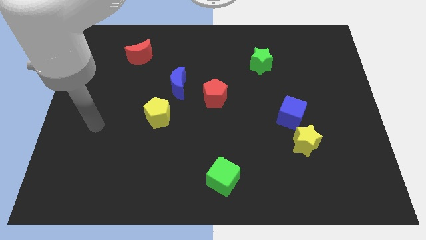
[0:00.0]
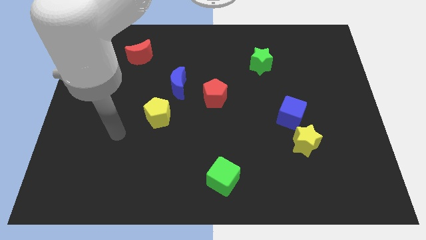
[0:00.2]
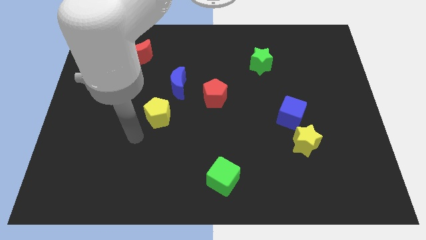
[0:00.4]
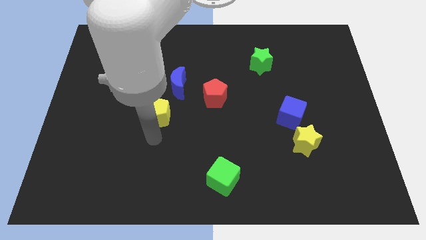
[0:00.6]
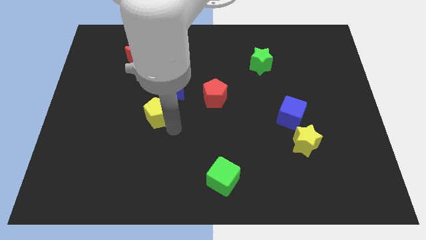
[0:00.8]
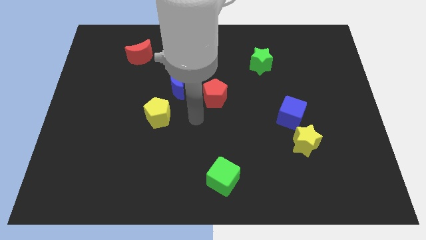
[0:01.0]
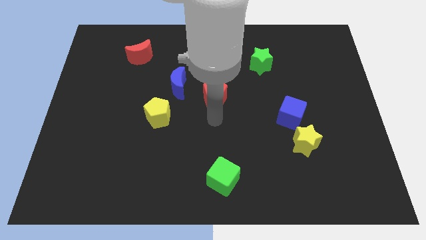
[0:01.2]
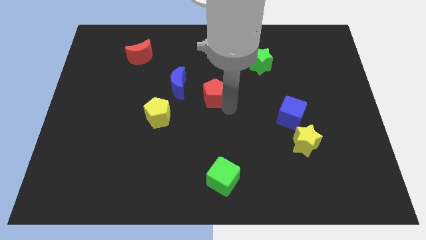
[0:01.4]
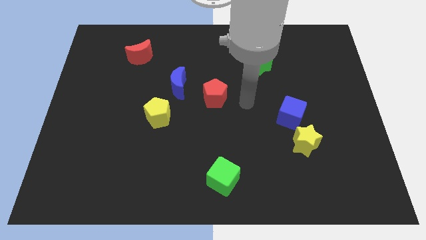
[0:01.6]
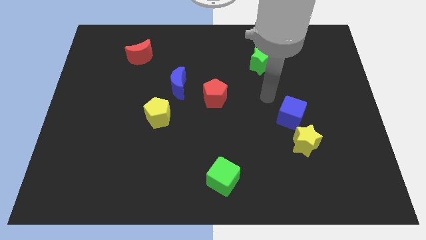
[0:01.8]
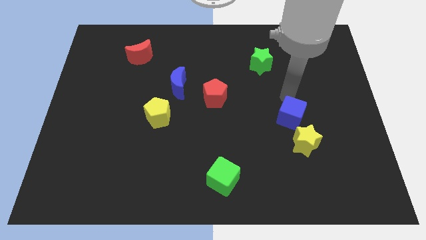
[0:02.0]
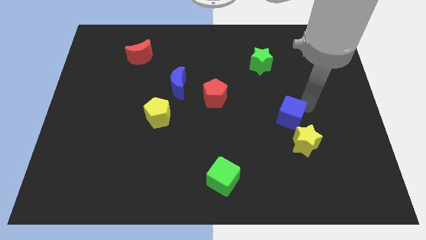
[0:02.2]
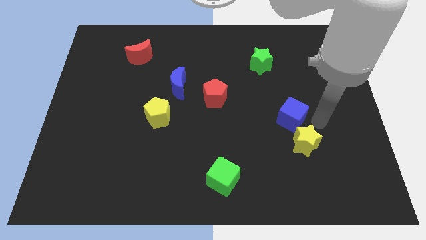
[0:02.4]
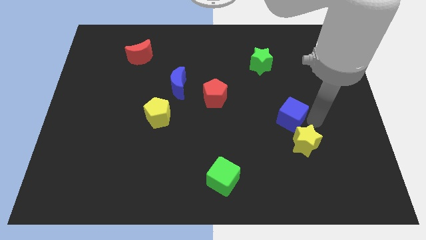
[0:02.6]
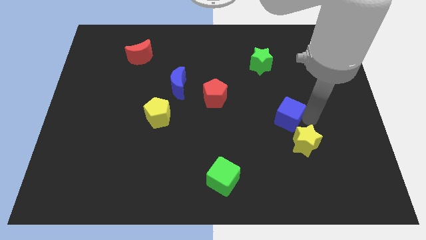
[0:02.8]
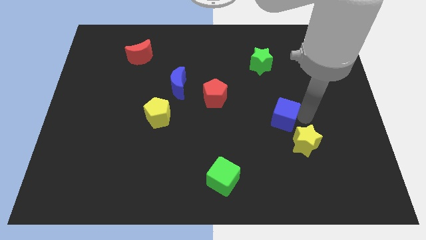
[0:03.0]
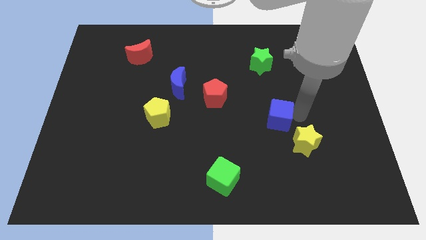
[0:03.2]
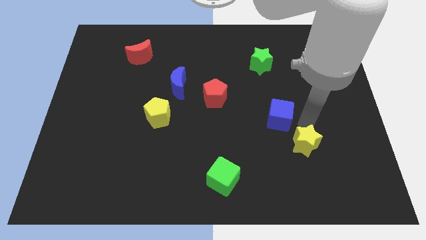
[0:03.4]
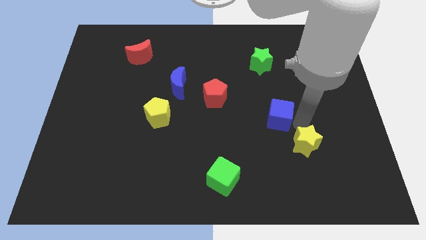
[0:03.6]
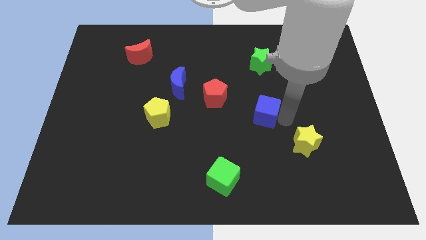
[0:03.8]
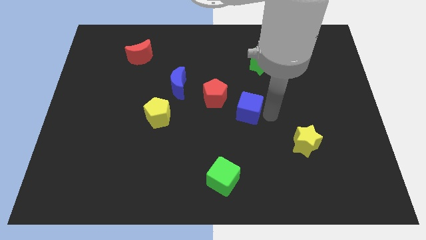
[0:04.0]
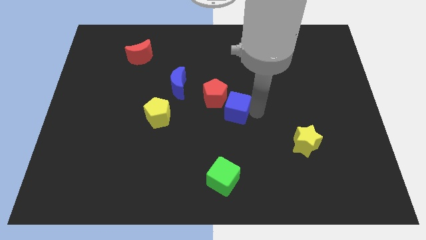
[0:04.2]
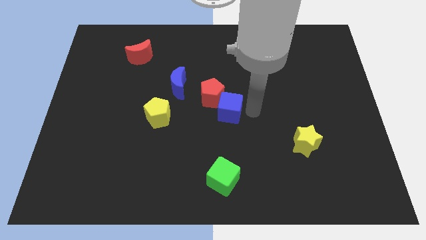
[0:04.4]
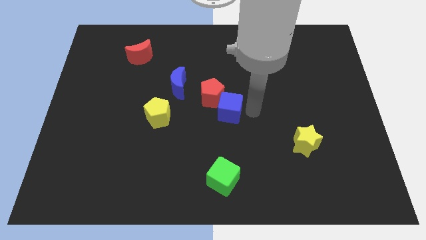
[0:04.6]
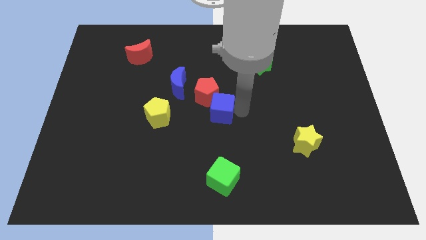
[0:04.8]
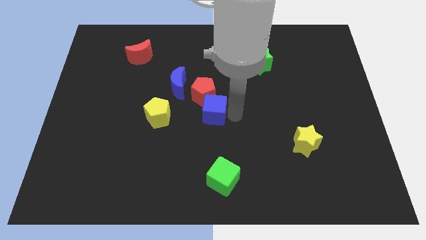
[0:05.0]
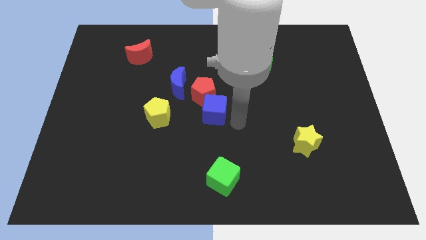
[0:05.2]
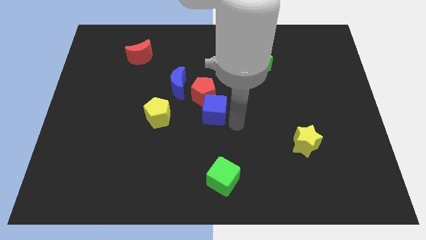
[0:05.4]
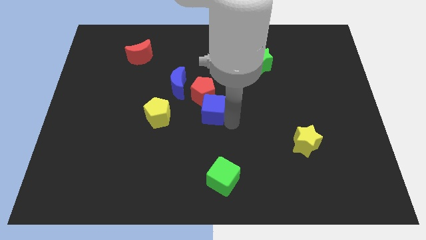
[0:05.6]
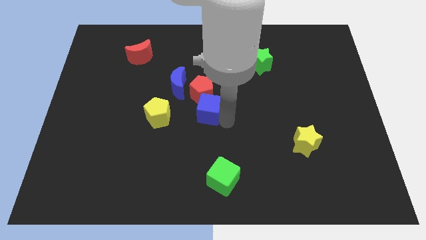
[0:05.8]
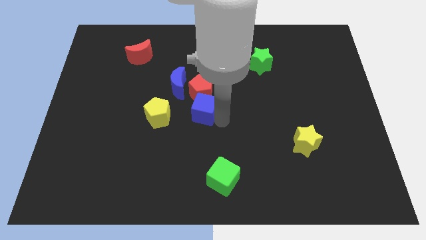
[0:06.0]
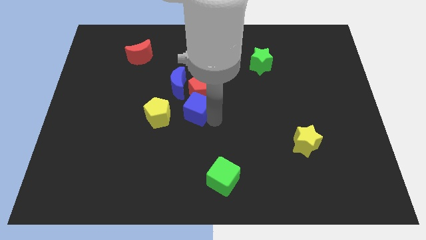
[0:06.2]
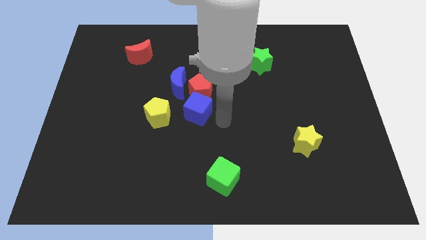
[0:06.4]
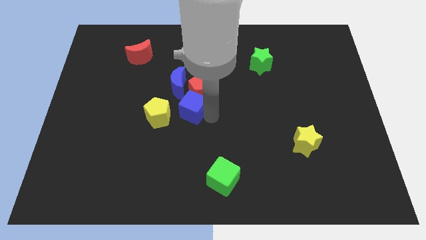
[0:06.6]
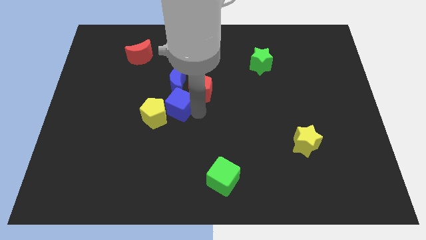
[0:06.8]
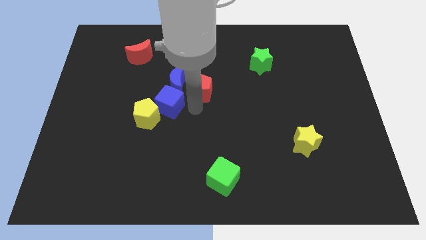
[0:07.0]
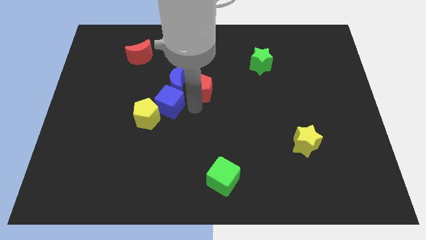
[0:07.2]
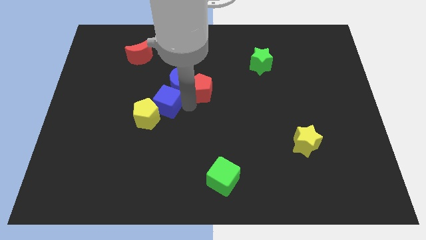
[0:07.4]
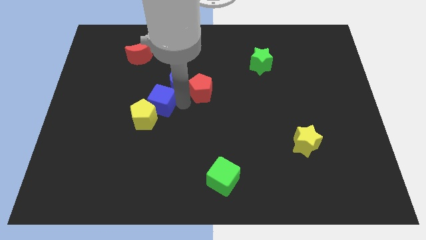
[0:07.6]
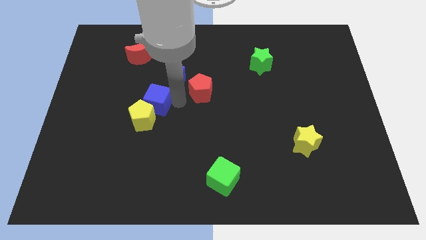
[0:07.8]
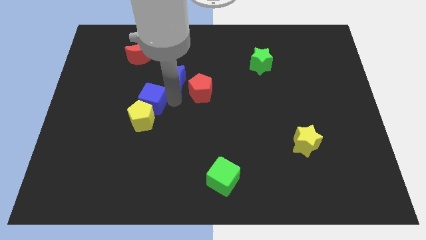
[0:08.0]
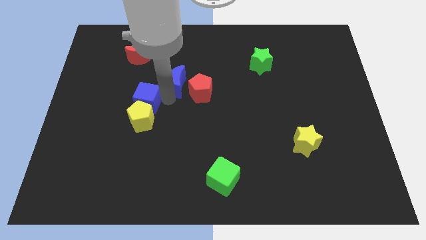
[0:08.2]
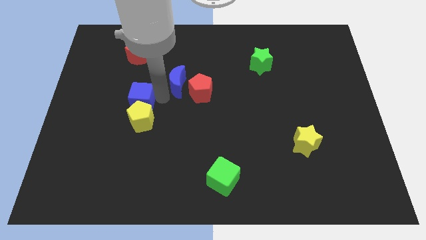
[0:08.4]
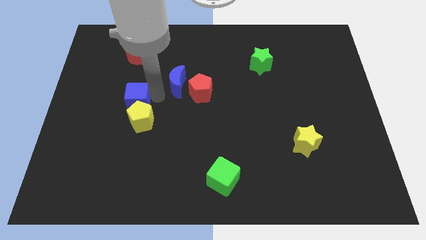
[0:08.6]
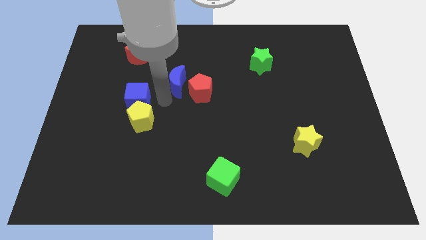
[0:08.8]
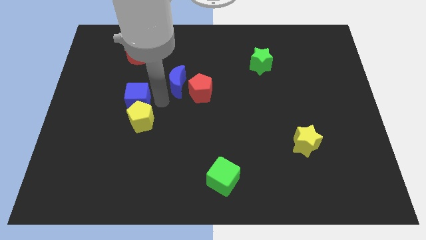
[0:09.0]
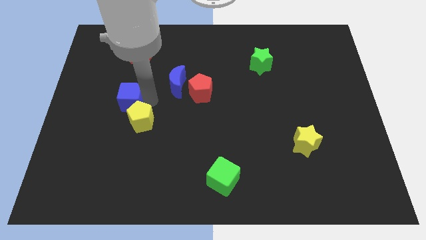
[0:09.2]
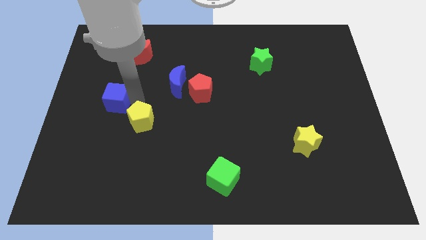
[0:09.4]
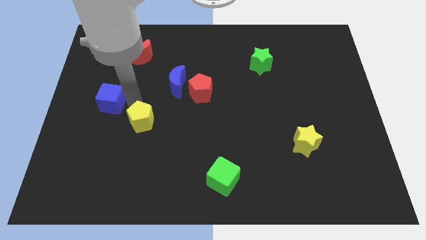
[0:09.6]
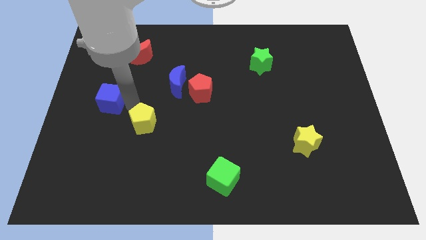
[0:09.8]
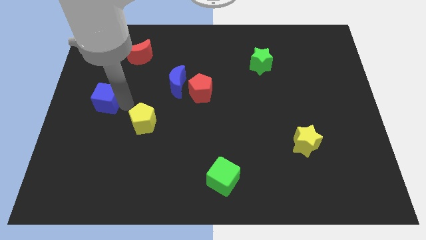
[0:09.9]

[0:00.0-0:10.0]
slide the blue cube to the center left

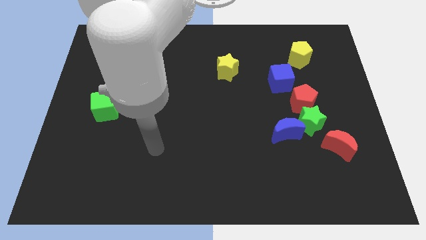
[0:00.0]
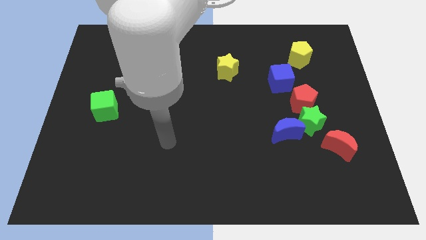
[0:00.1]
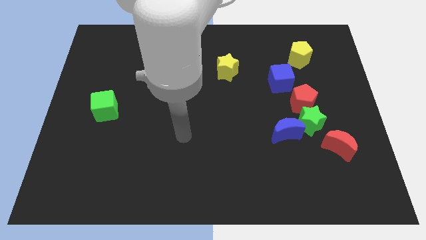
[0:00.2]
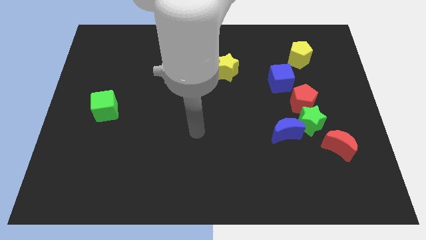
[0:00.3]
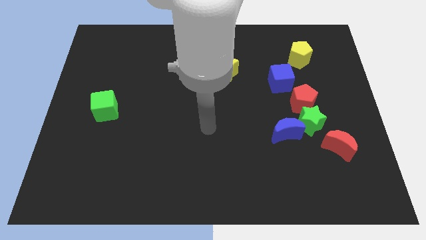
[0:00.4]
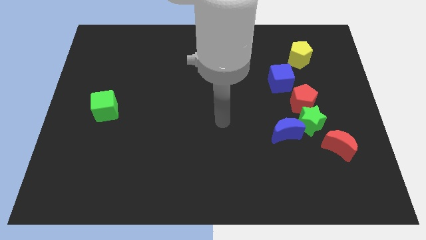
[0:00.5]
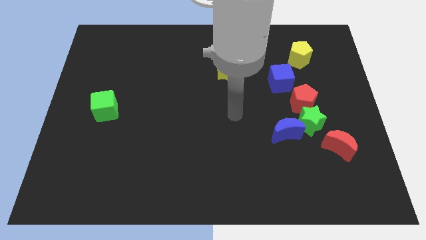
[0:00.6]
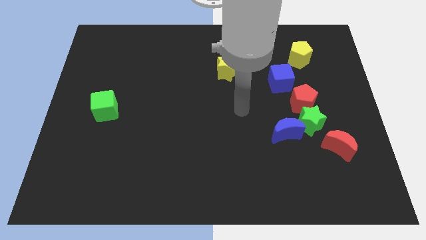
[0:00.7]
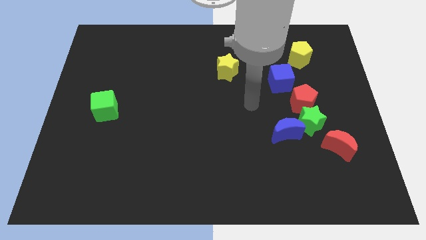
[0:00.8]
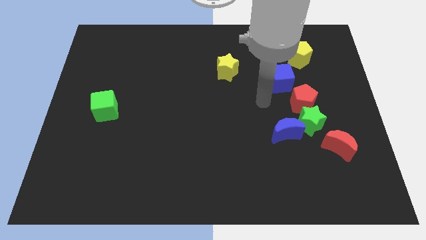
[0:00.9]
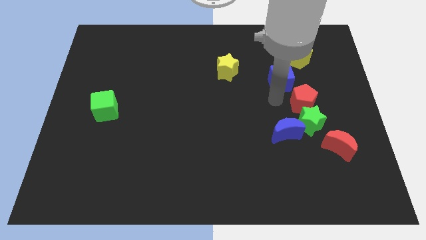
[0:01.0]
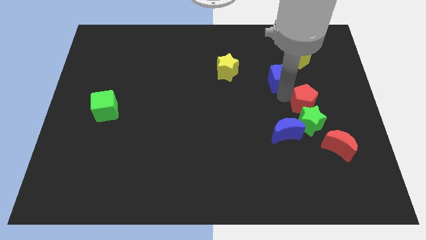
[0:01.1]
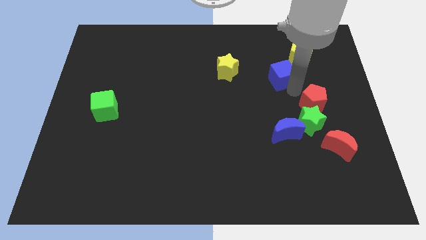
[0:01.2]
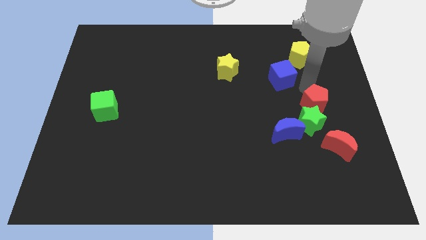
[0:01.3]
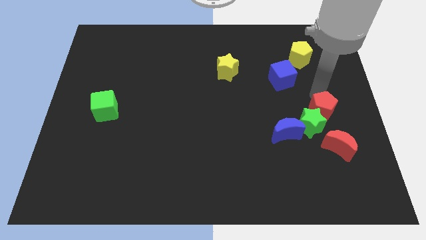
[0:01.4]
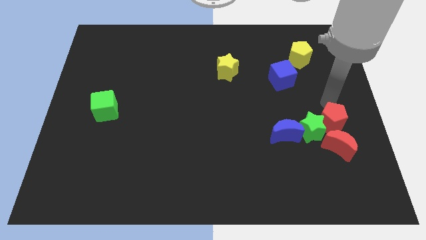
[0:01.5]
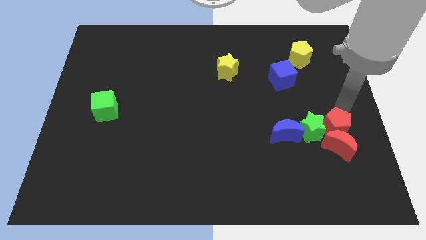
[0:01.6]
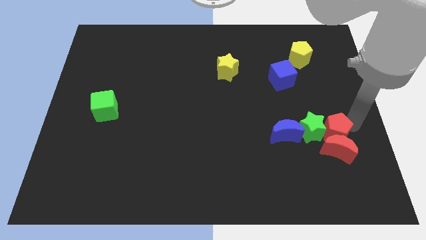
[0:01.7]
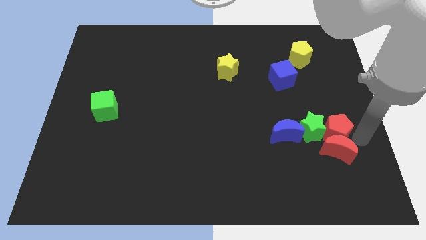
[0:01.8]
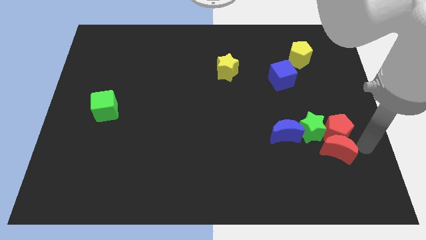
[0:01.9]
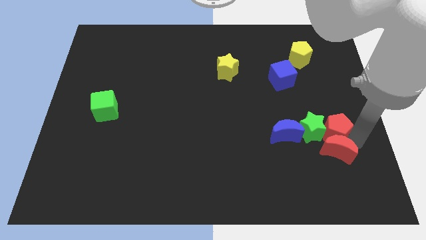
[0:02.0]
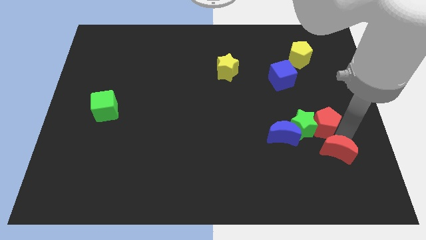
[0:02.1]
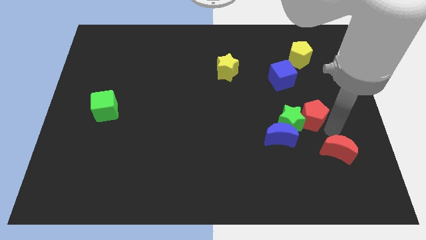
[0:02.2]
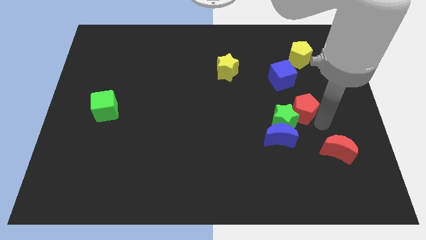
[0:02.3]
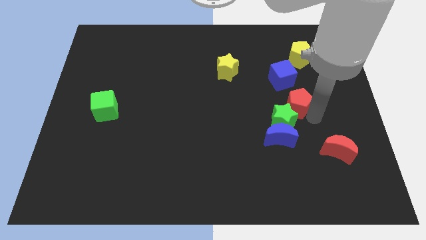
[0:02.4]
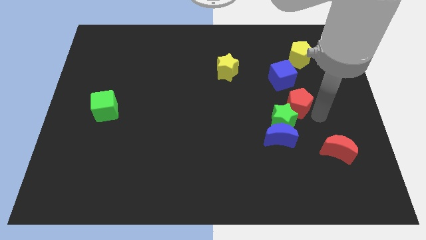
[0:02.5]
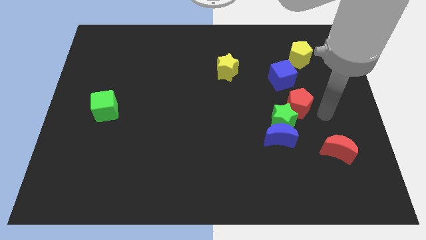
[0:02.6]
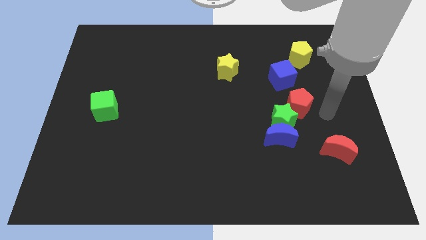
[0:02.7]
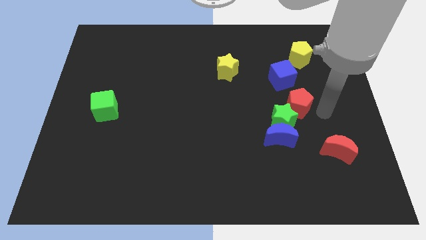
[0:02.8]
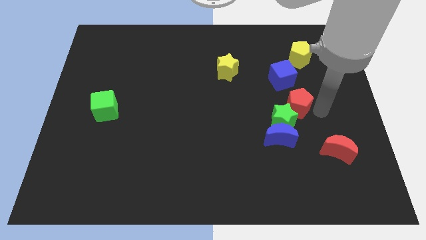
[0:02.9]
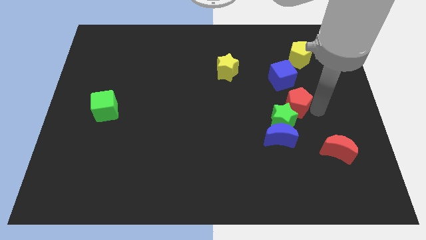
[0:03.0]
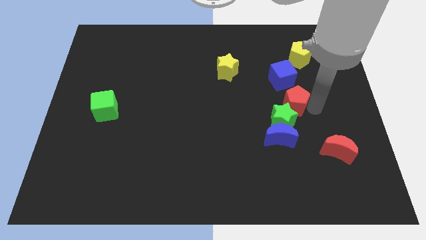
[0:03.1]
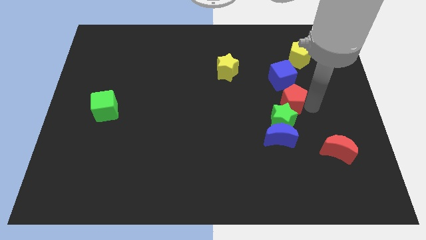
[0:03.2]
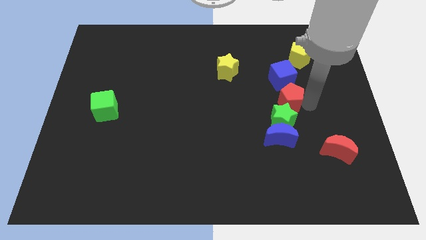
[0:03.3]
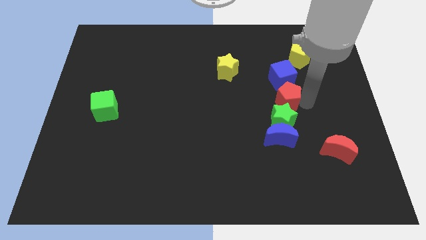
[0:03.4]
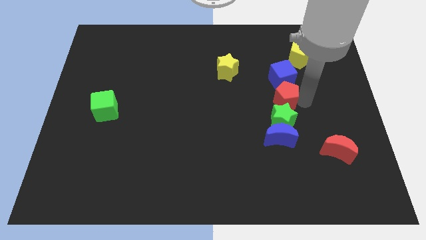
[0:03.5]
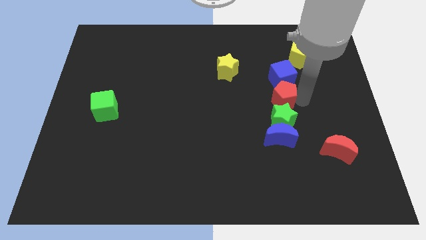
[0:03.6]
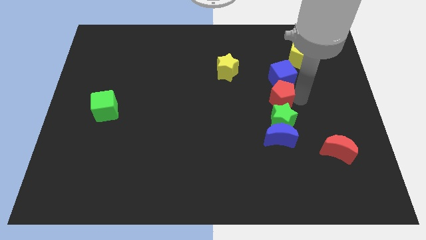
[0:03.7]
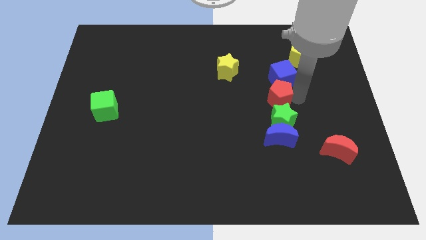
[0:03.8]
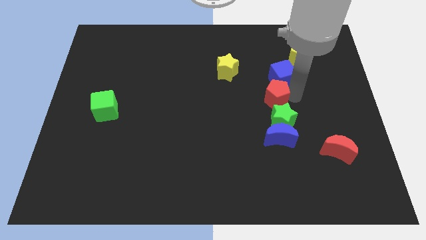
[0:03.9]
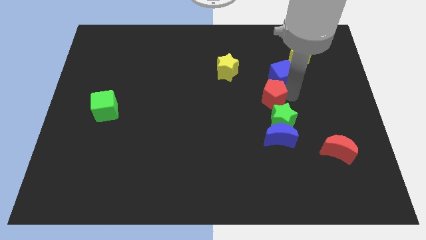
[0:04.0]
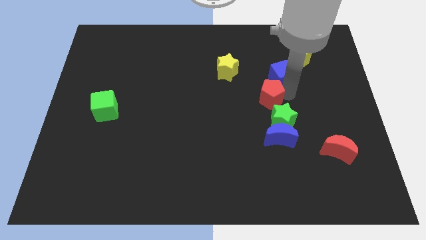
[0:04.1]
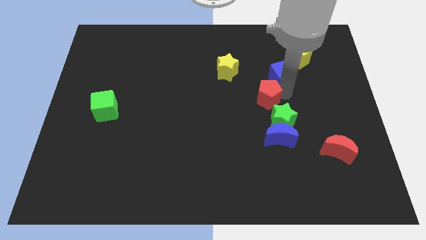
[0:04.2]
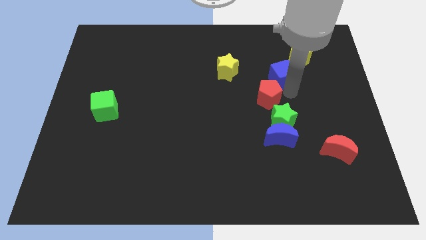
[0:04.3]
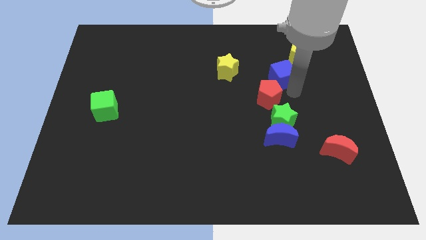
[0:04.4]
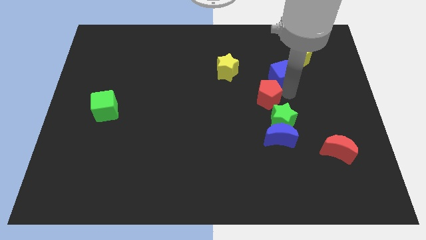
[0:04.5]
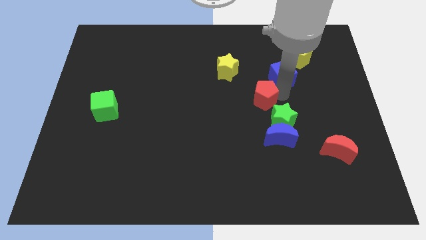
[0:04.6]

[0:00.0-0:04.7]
put the red pentagon to the middle
